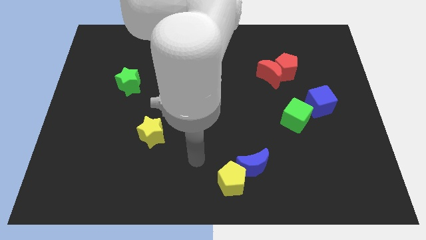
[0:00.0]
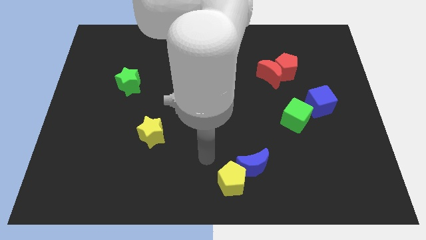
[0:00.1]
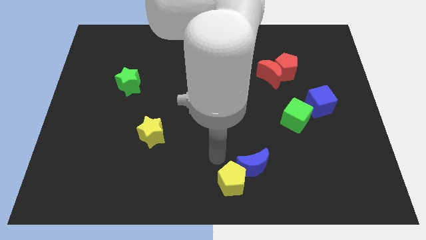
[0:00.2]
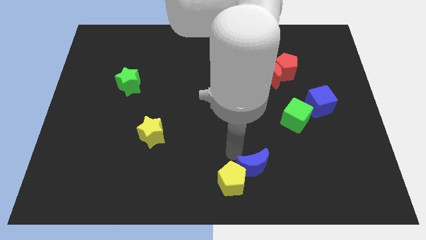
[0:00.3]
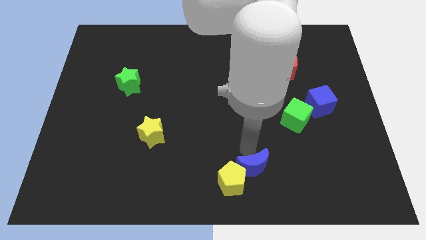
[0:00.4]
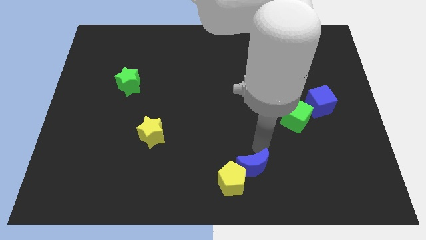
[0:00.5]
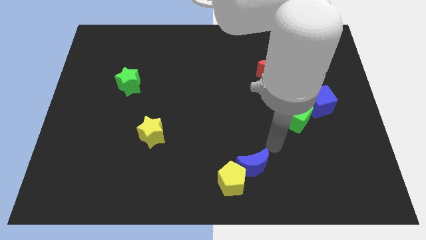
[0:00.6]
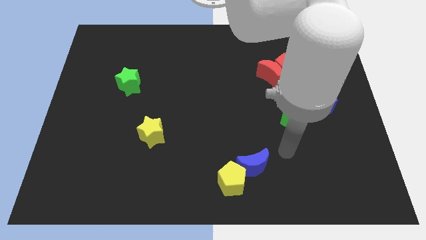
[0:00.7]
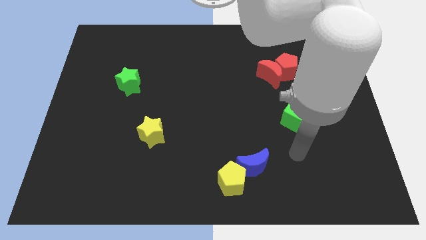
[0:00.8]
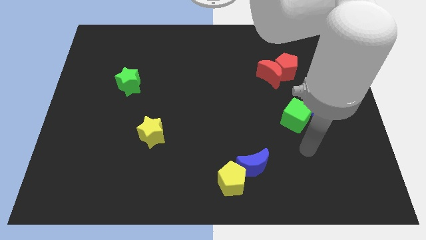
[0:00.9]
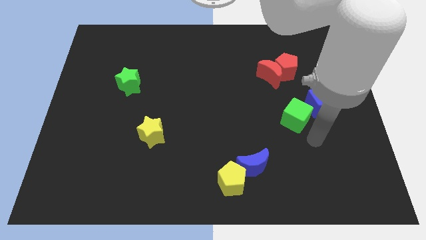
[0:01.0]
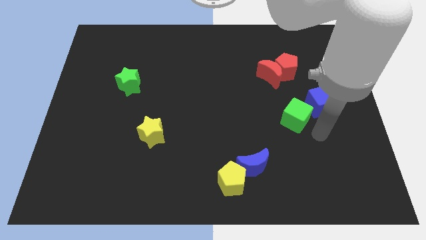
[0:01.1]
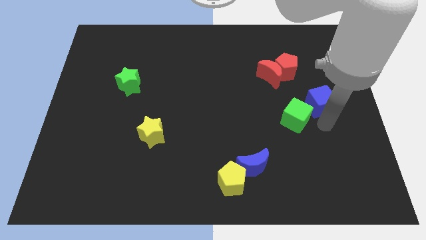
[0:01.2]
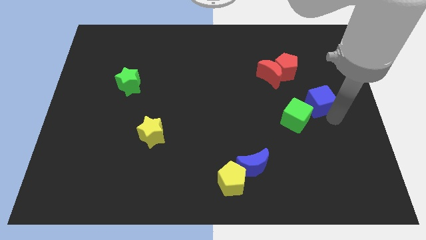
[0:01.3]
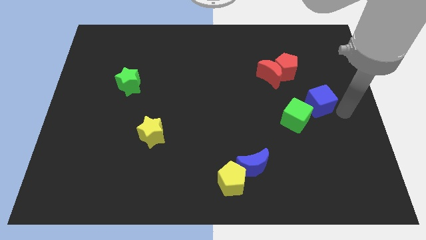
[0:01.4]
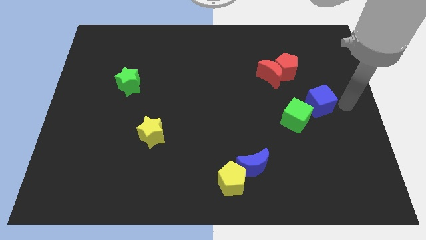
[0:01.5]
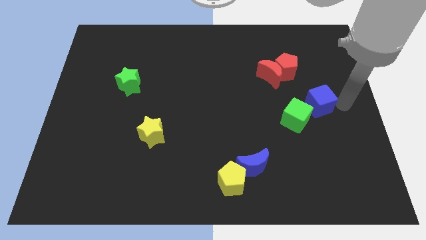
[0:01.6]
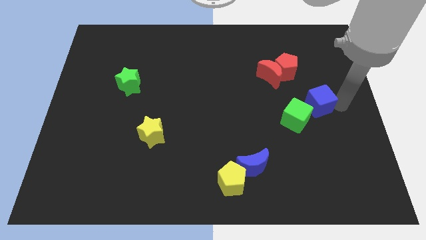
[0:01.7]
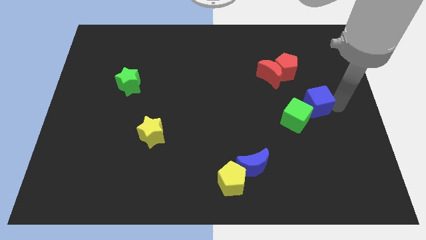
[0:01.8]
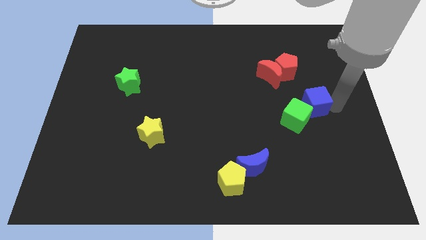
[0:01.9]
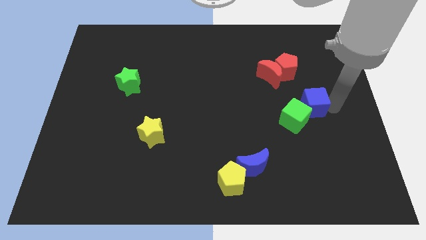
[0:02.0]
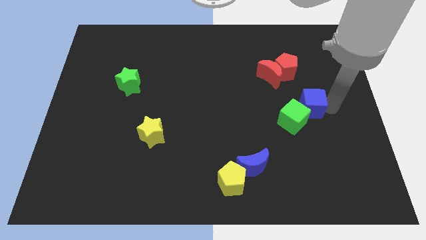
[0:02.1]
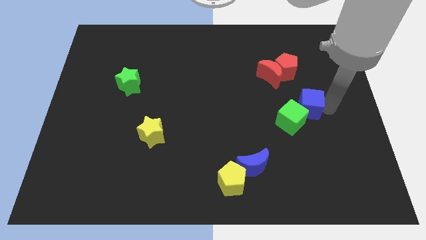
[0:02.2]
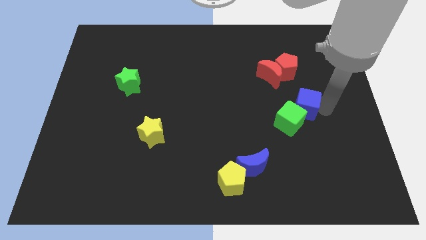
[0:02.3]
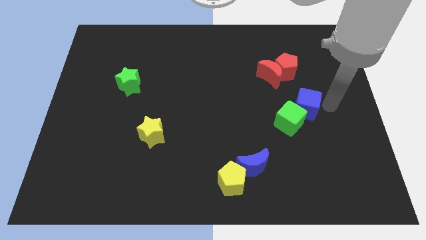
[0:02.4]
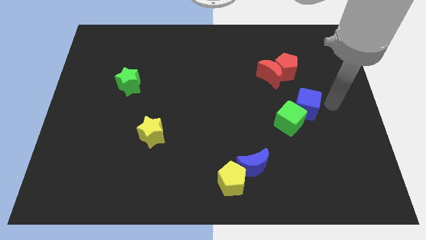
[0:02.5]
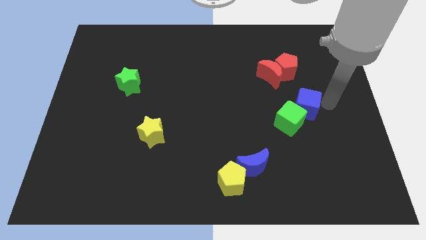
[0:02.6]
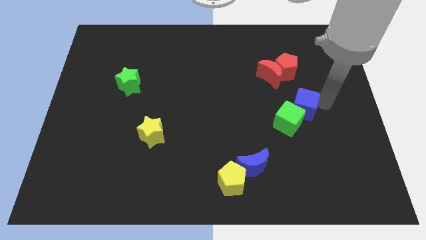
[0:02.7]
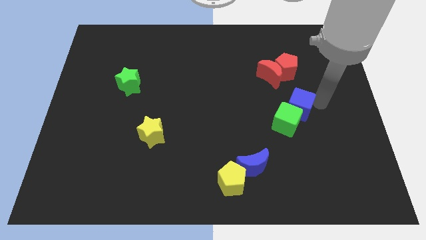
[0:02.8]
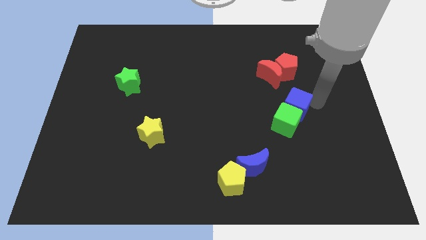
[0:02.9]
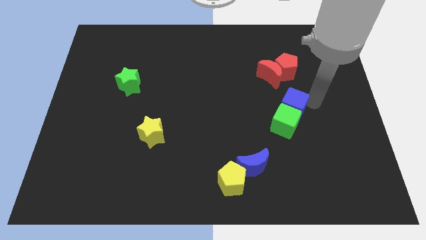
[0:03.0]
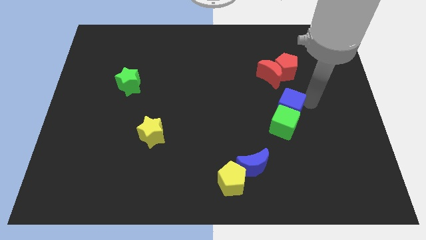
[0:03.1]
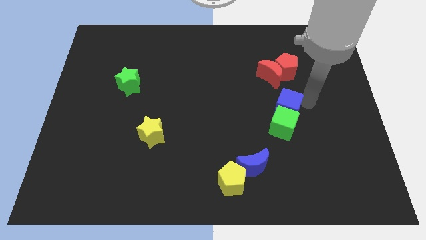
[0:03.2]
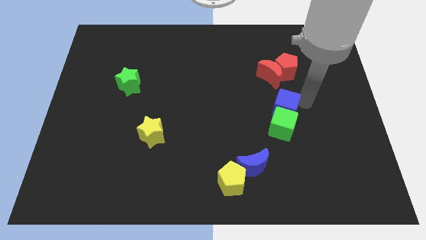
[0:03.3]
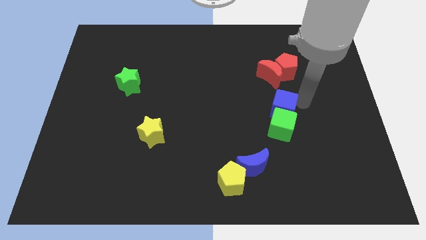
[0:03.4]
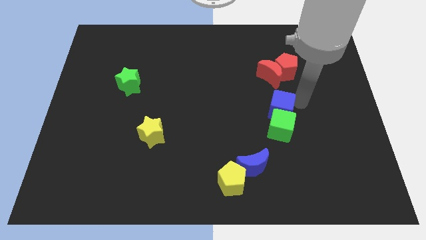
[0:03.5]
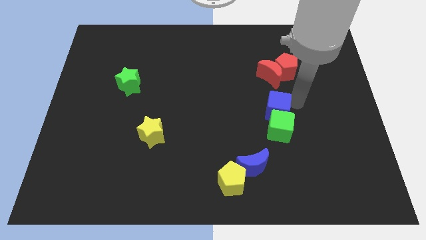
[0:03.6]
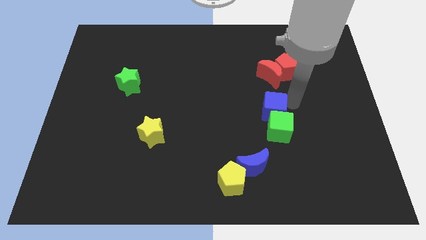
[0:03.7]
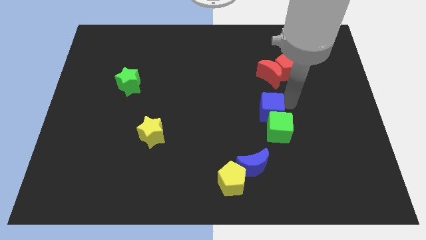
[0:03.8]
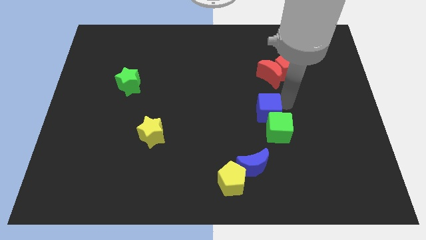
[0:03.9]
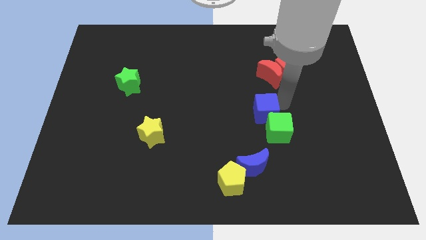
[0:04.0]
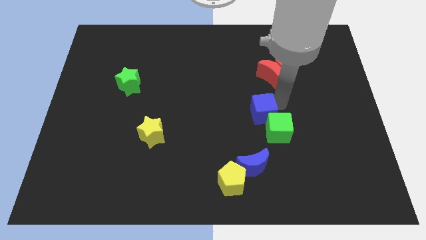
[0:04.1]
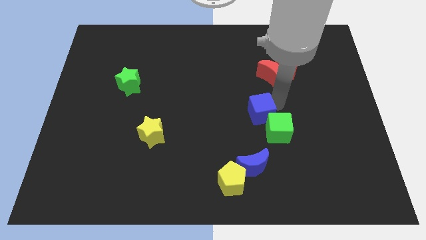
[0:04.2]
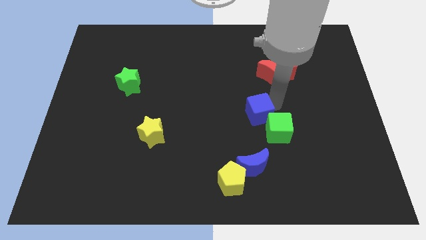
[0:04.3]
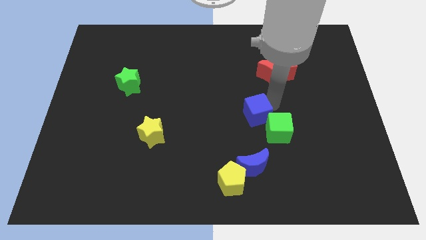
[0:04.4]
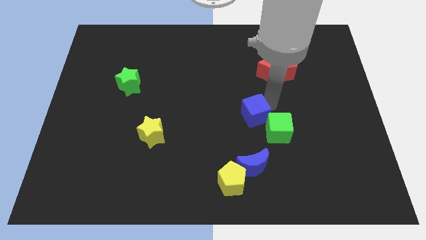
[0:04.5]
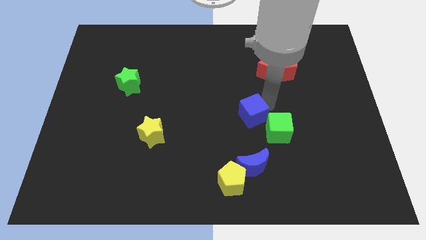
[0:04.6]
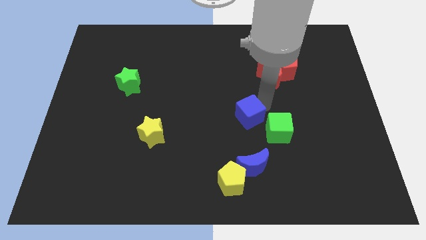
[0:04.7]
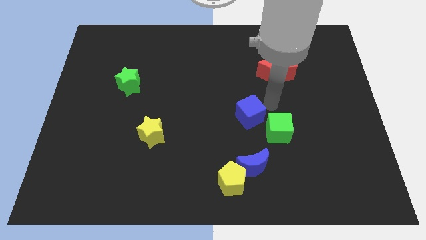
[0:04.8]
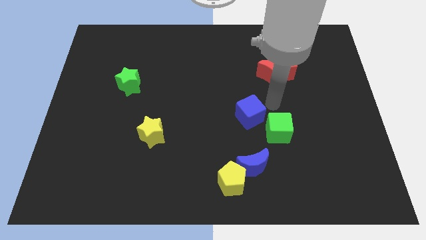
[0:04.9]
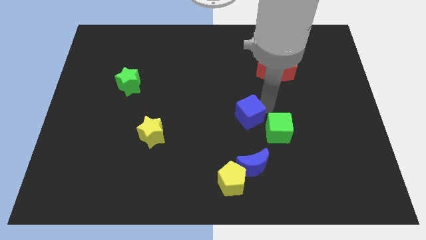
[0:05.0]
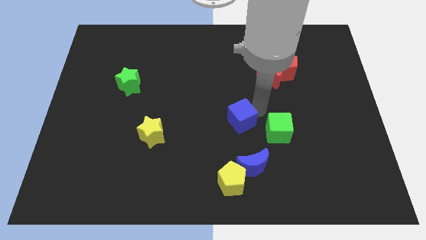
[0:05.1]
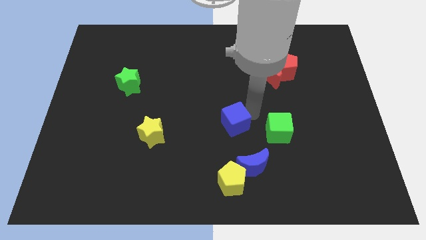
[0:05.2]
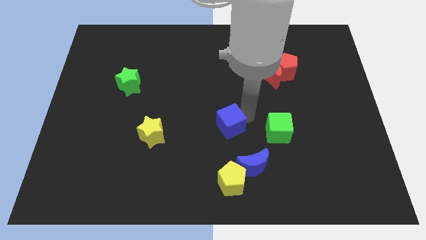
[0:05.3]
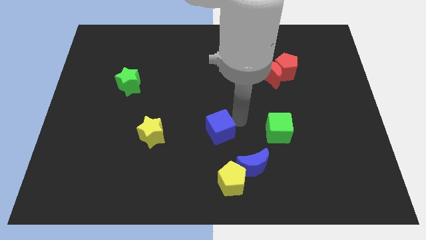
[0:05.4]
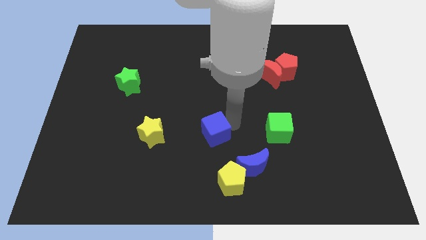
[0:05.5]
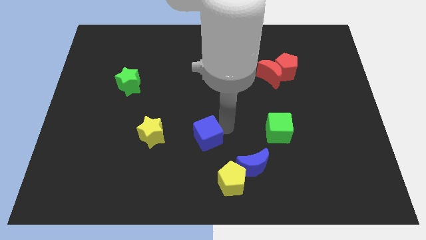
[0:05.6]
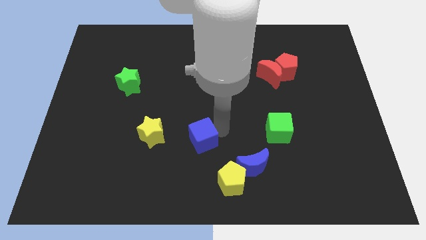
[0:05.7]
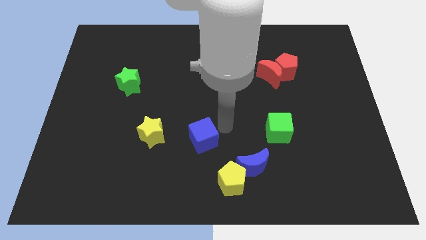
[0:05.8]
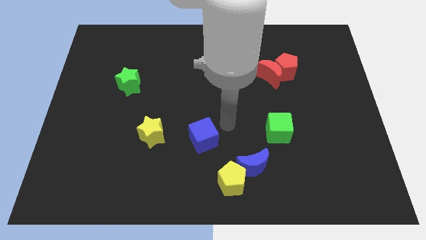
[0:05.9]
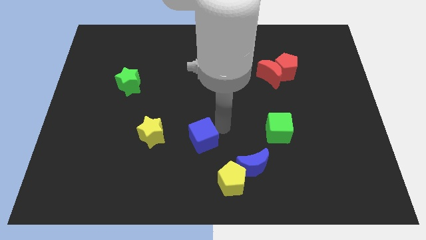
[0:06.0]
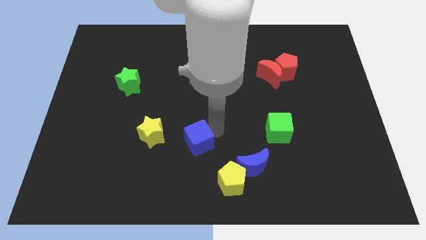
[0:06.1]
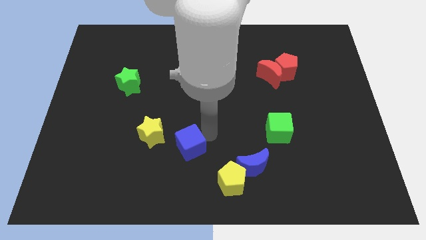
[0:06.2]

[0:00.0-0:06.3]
slide the blue cube to the bottom right side of the yellow star

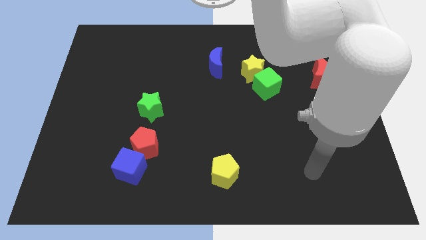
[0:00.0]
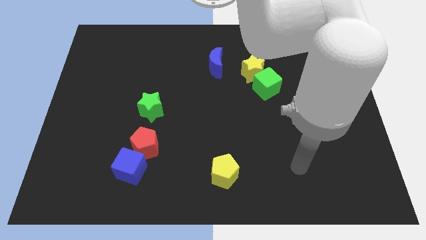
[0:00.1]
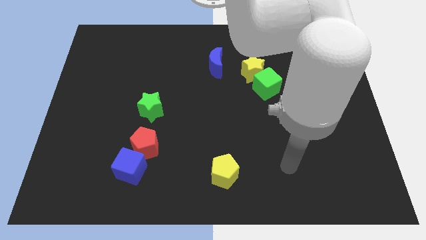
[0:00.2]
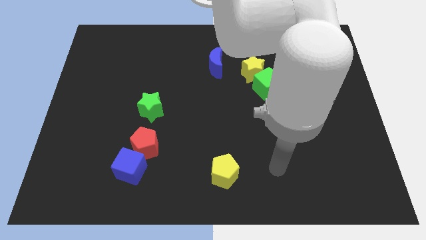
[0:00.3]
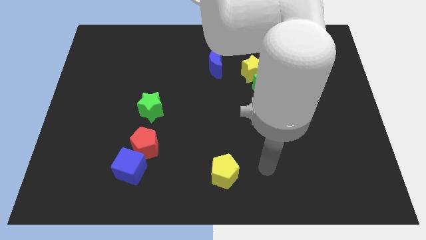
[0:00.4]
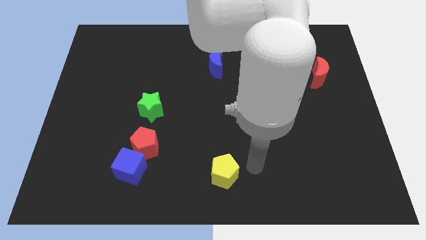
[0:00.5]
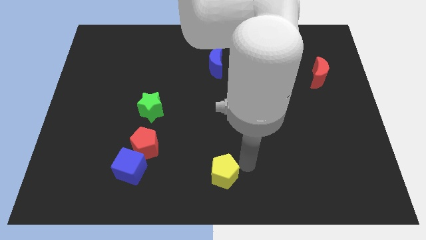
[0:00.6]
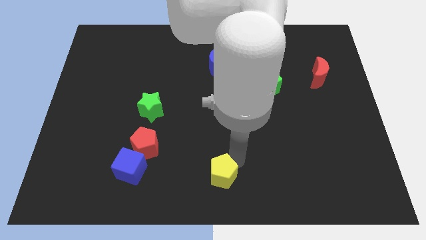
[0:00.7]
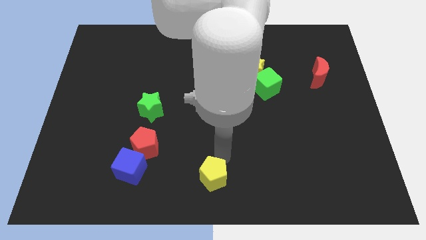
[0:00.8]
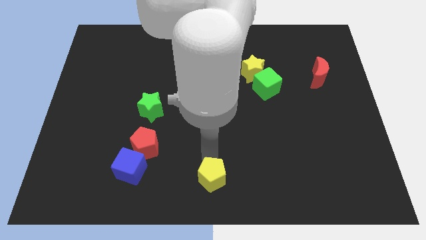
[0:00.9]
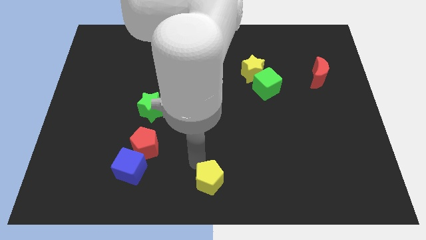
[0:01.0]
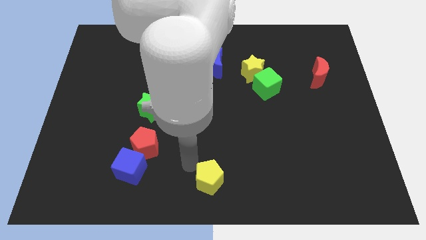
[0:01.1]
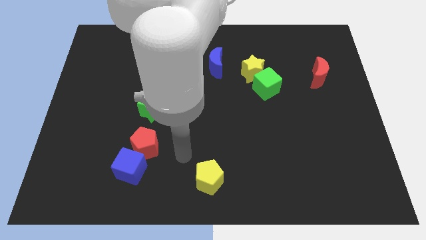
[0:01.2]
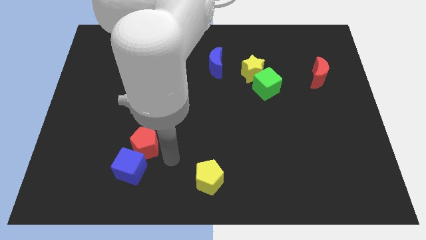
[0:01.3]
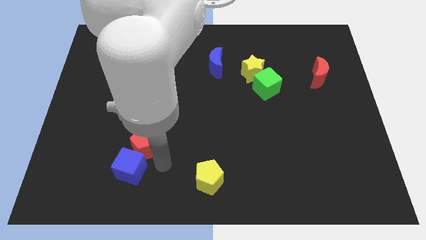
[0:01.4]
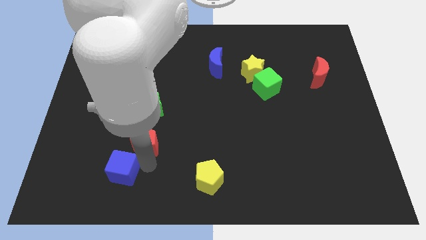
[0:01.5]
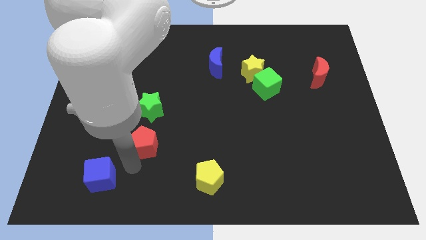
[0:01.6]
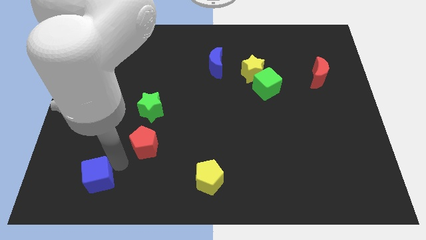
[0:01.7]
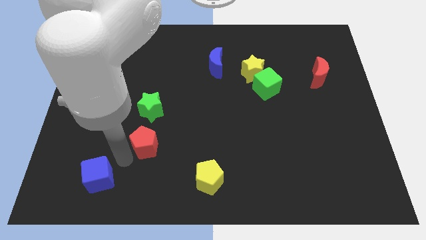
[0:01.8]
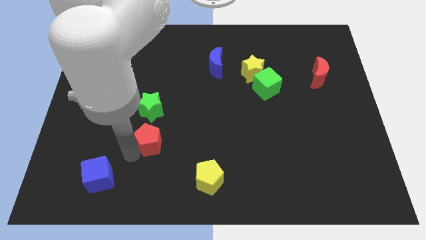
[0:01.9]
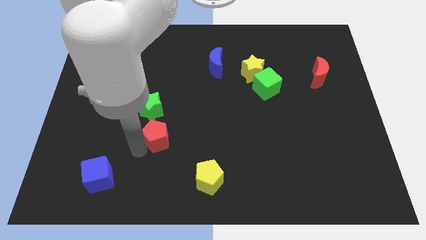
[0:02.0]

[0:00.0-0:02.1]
slide the red pentagon to the bottom right side of the green star
